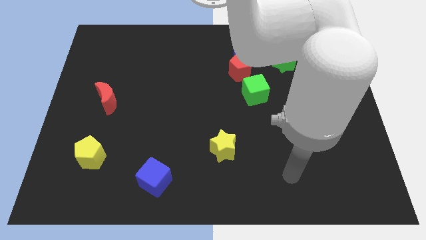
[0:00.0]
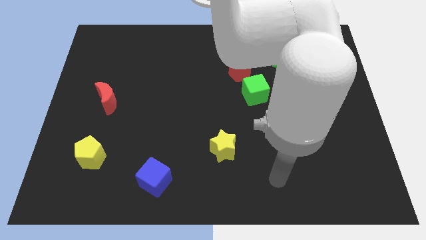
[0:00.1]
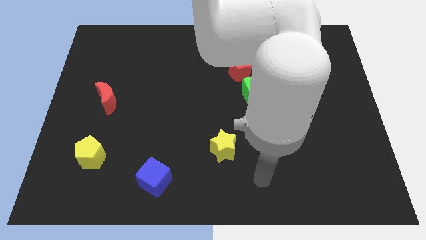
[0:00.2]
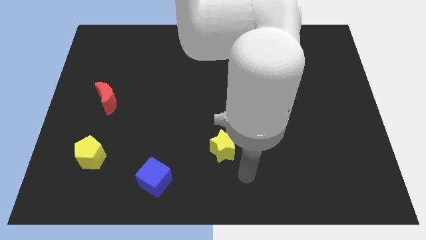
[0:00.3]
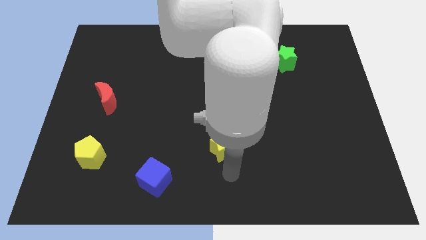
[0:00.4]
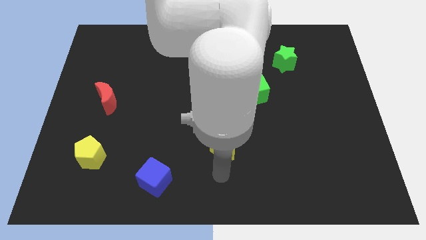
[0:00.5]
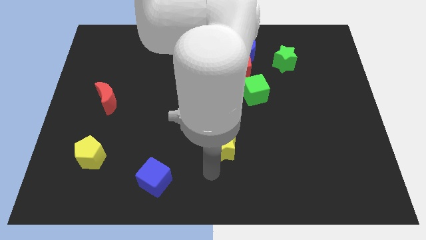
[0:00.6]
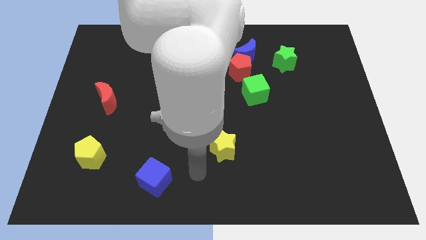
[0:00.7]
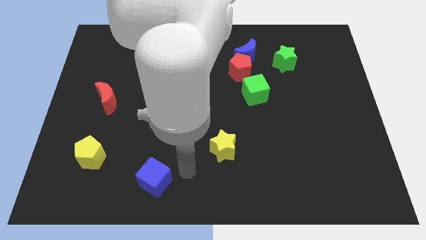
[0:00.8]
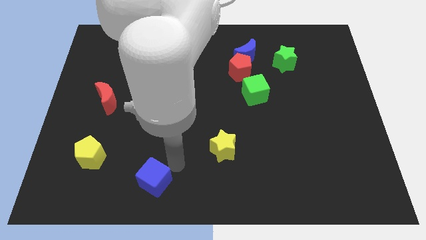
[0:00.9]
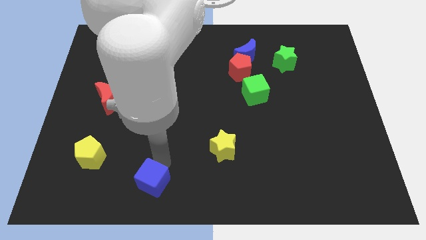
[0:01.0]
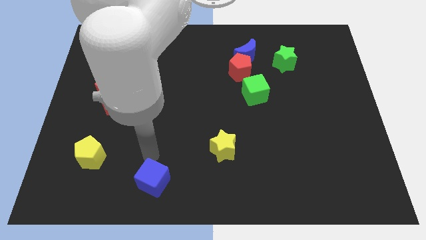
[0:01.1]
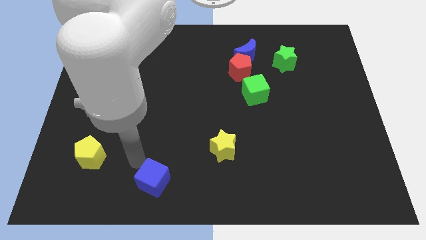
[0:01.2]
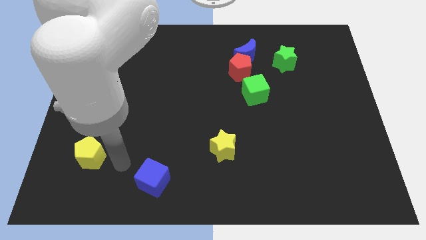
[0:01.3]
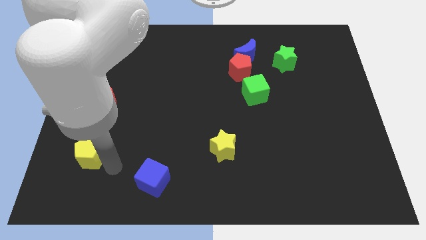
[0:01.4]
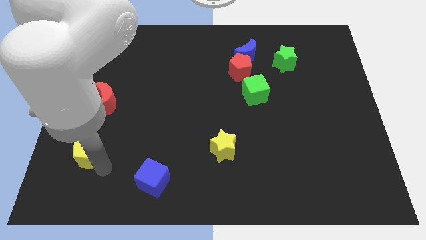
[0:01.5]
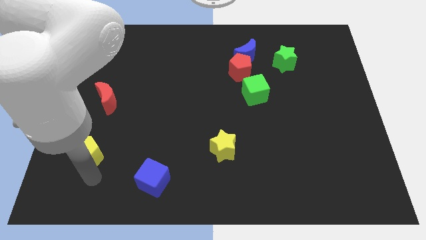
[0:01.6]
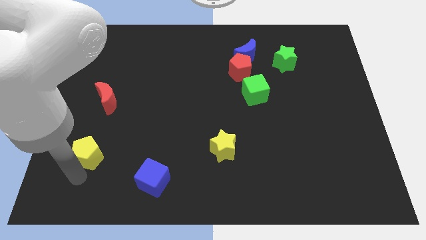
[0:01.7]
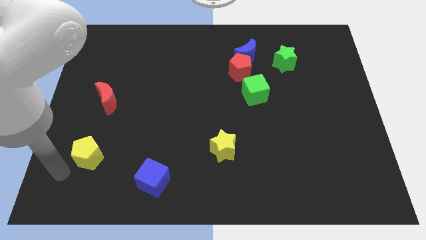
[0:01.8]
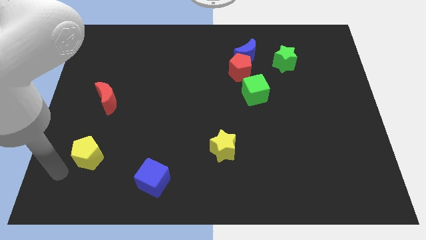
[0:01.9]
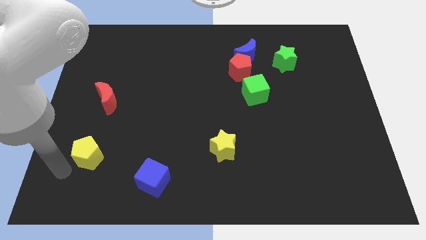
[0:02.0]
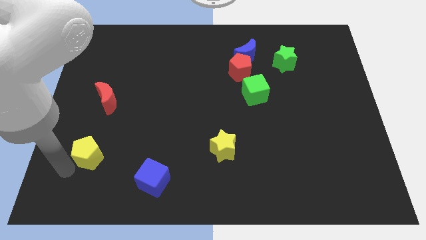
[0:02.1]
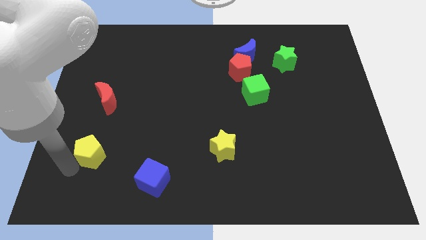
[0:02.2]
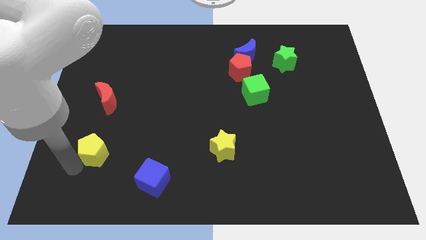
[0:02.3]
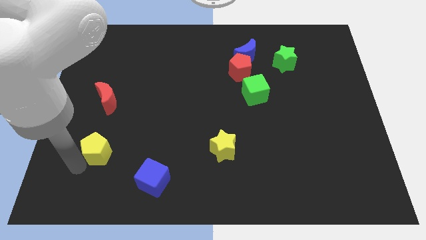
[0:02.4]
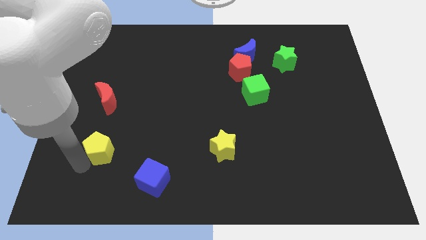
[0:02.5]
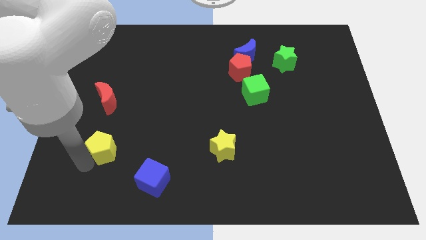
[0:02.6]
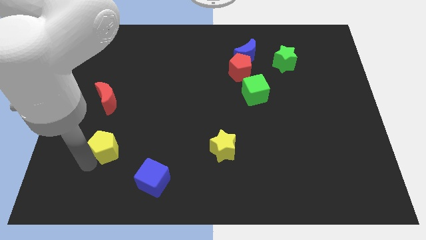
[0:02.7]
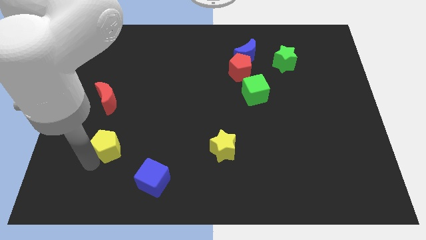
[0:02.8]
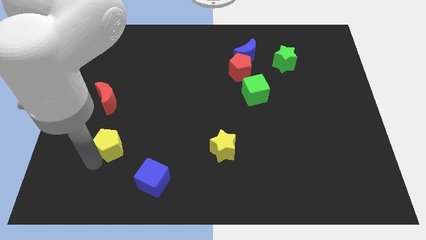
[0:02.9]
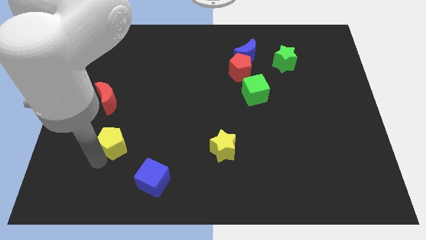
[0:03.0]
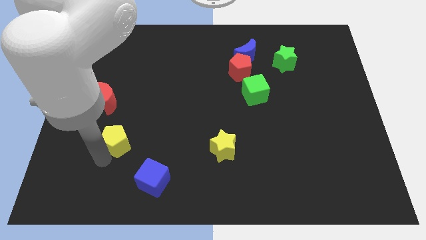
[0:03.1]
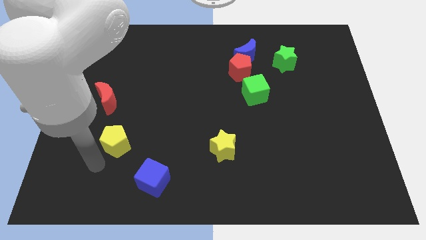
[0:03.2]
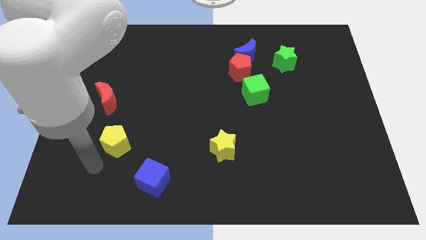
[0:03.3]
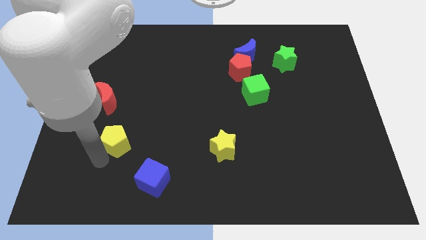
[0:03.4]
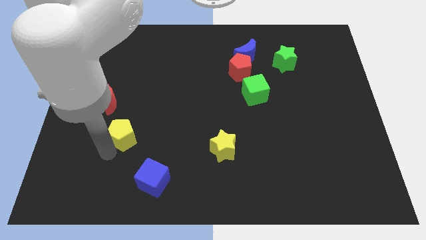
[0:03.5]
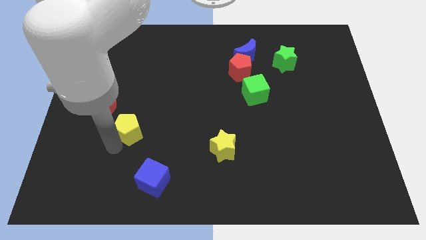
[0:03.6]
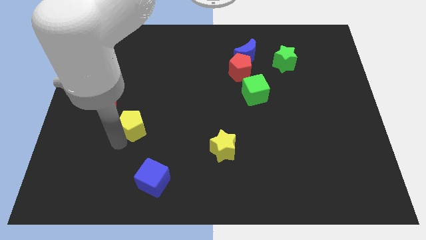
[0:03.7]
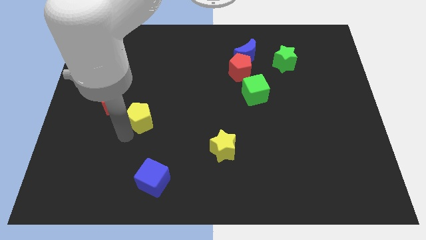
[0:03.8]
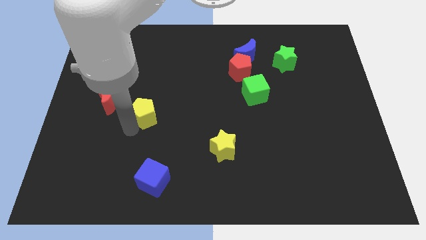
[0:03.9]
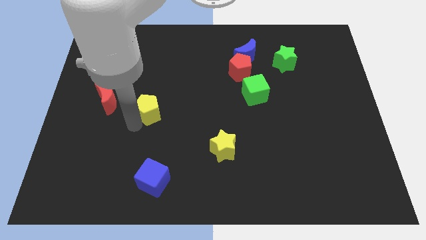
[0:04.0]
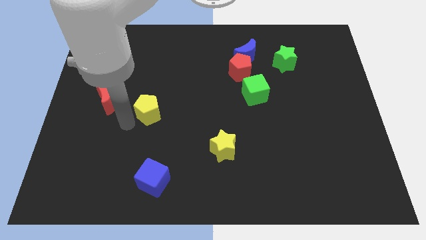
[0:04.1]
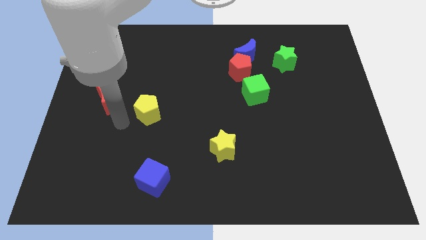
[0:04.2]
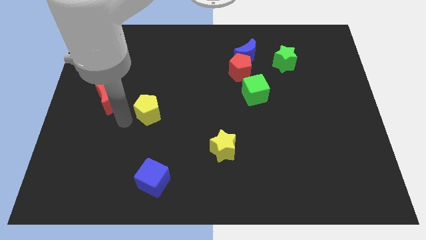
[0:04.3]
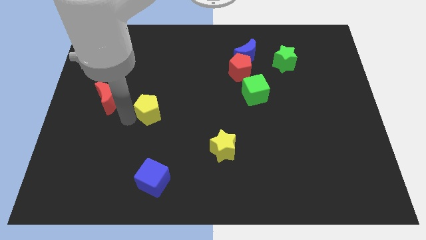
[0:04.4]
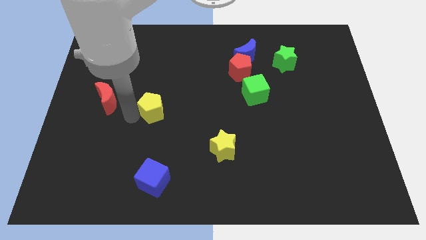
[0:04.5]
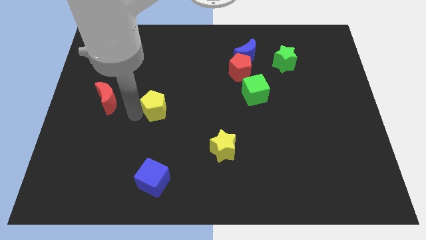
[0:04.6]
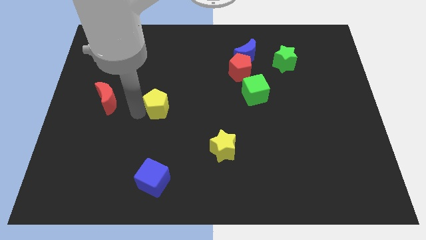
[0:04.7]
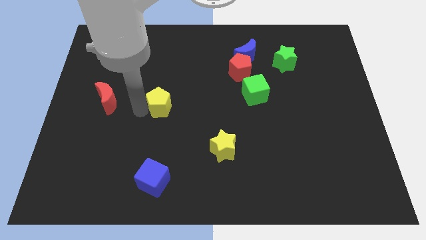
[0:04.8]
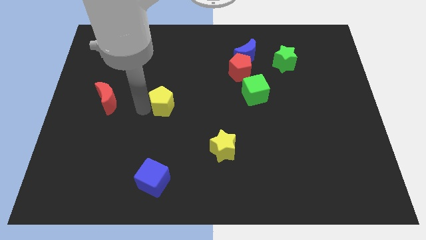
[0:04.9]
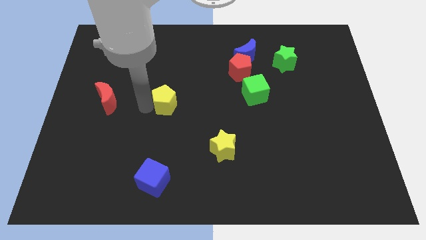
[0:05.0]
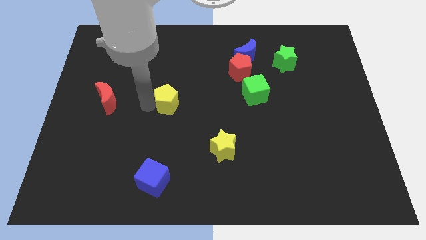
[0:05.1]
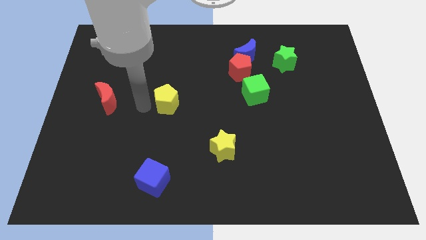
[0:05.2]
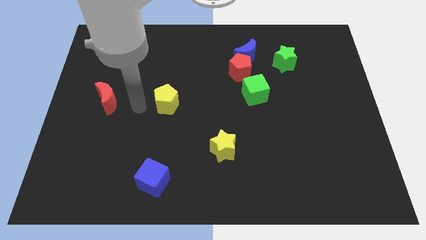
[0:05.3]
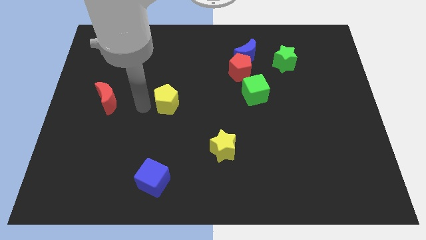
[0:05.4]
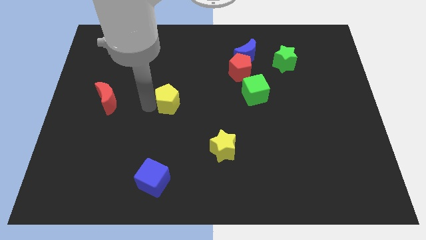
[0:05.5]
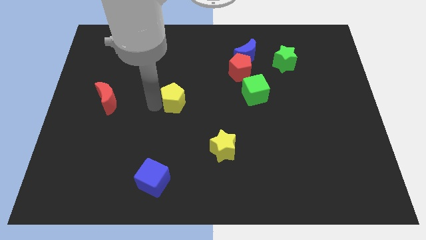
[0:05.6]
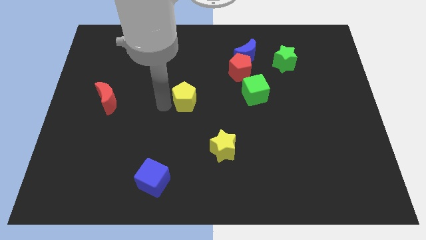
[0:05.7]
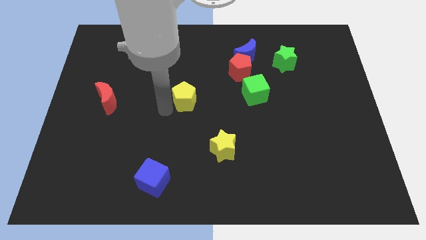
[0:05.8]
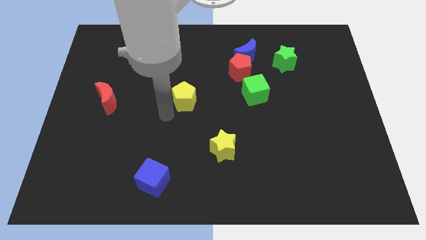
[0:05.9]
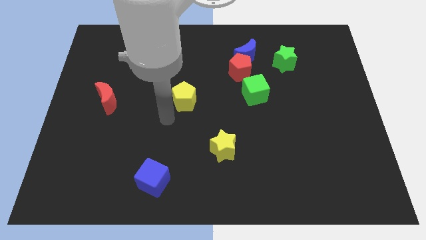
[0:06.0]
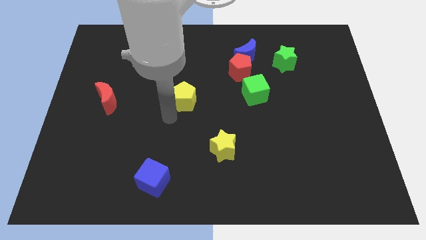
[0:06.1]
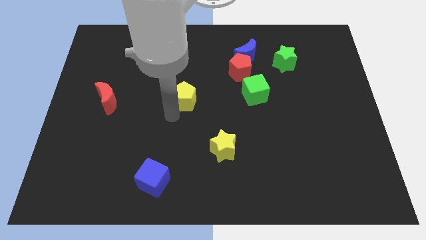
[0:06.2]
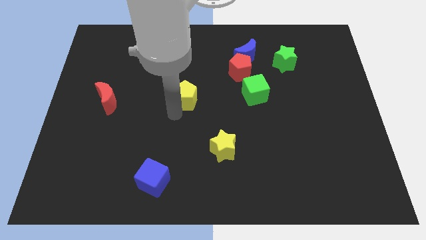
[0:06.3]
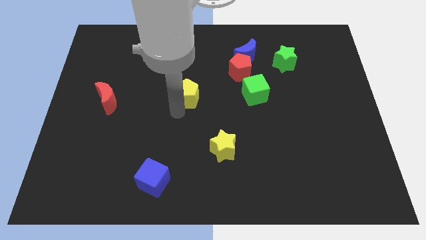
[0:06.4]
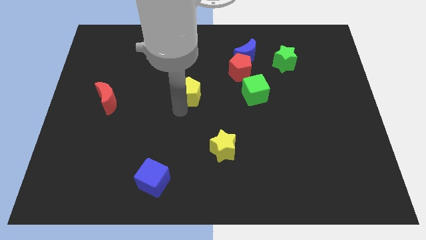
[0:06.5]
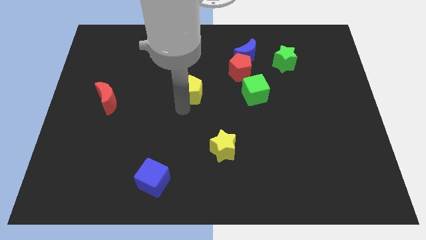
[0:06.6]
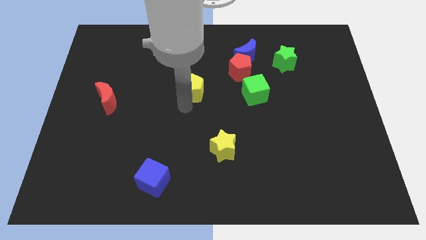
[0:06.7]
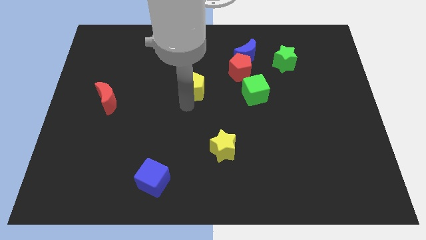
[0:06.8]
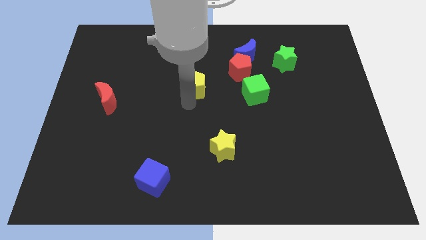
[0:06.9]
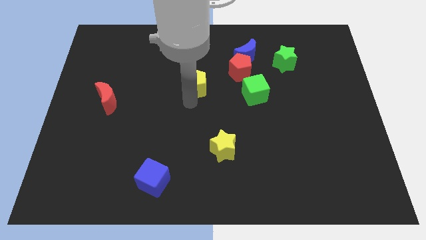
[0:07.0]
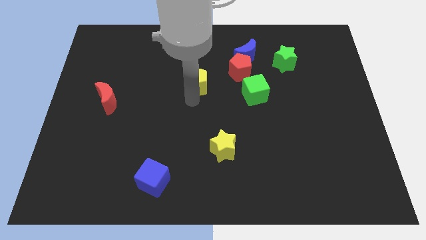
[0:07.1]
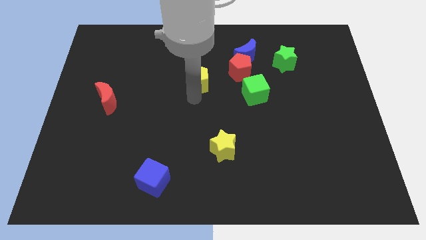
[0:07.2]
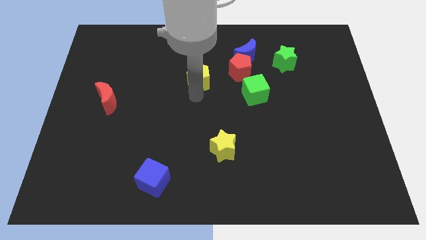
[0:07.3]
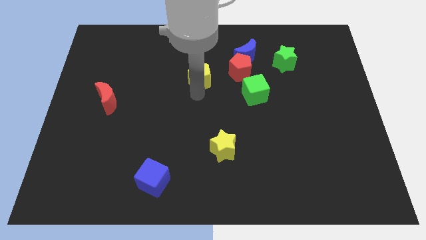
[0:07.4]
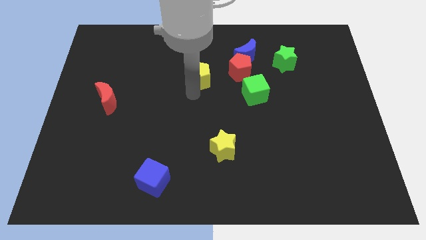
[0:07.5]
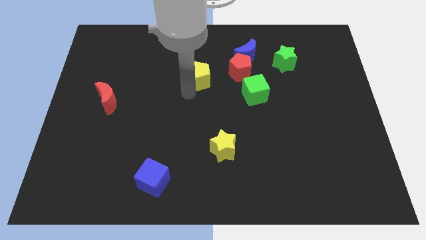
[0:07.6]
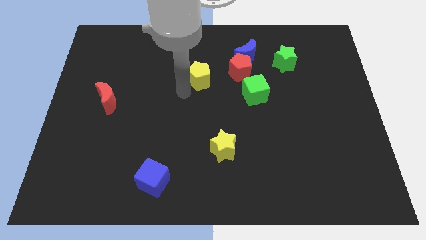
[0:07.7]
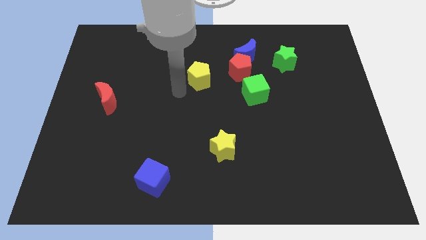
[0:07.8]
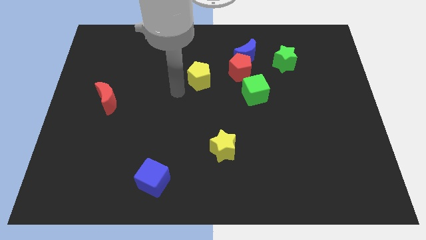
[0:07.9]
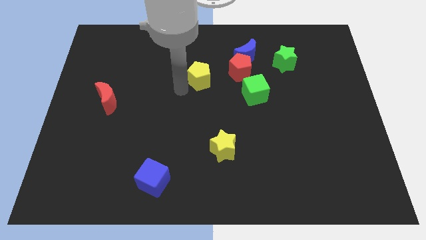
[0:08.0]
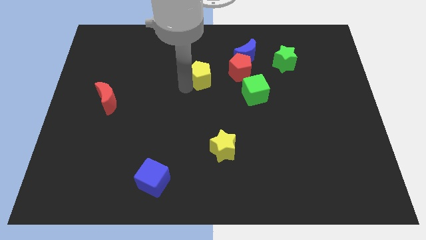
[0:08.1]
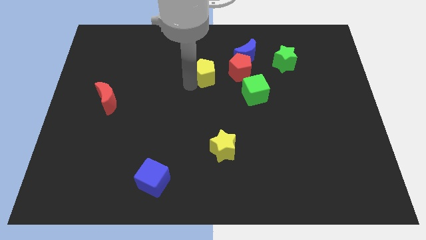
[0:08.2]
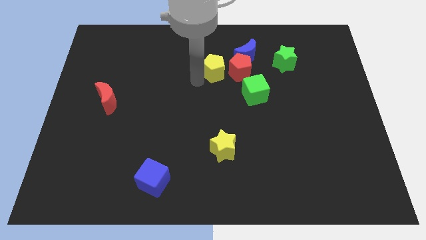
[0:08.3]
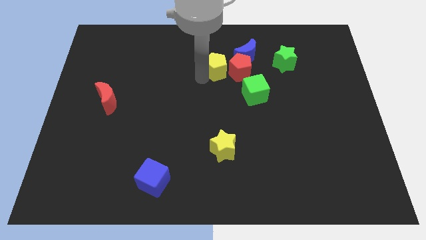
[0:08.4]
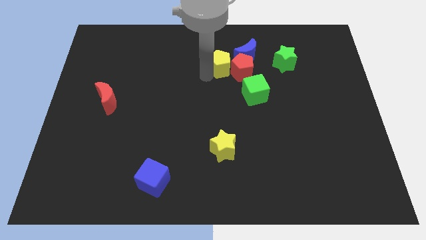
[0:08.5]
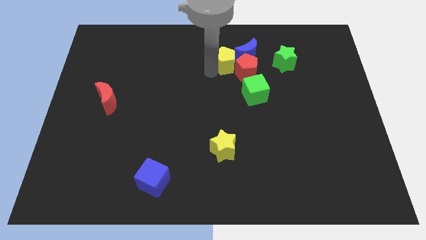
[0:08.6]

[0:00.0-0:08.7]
put the yellow pentagon to the left of the green star
